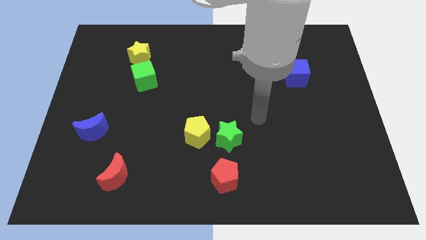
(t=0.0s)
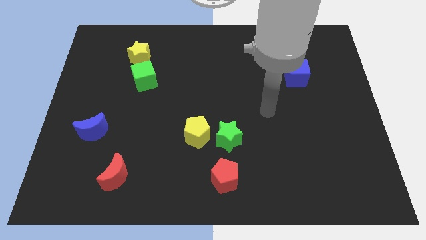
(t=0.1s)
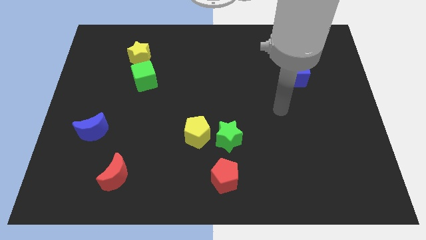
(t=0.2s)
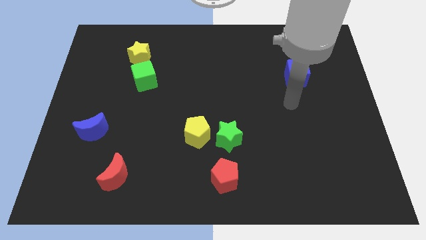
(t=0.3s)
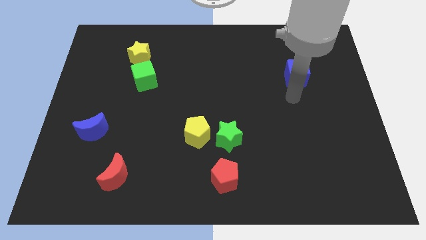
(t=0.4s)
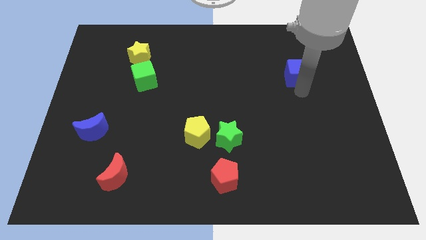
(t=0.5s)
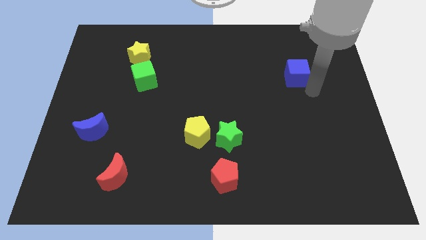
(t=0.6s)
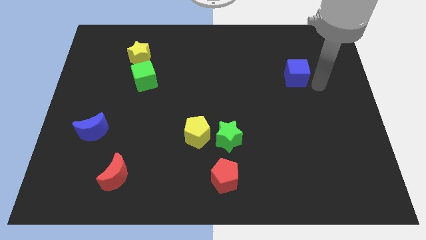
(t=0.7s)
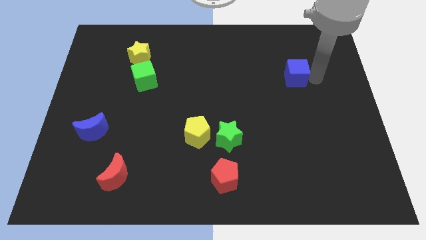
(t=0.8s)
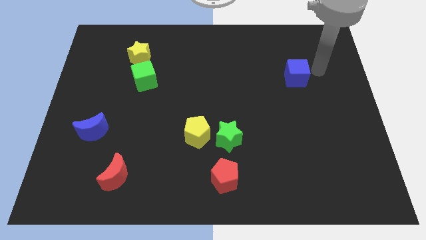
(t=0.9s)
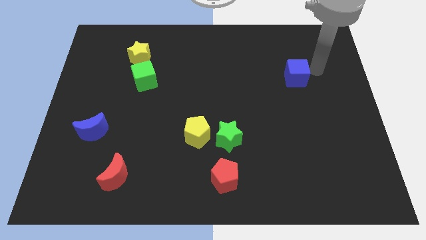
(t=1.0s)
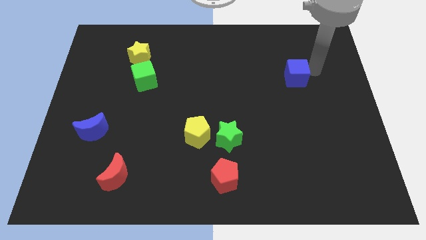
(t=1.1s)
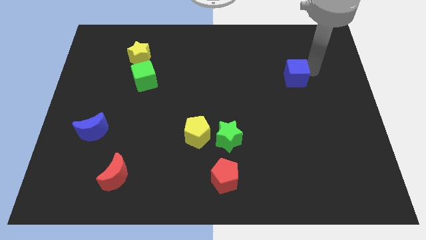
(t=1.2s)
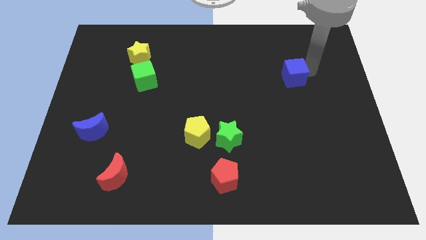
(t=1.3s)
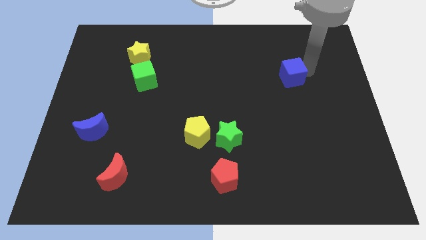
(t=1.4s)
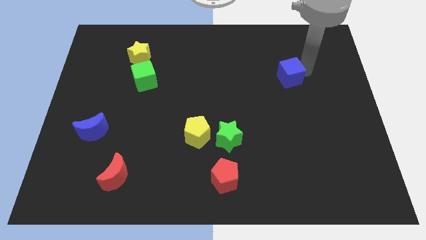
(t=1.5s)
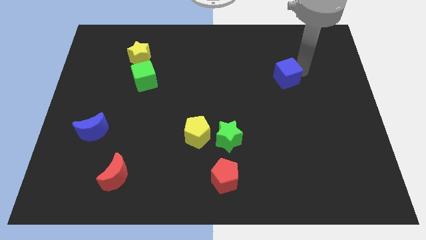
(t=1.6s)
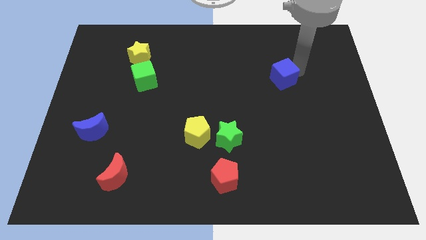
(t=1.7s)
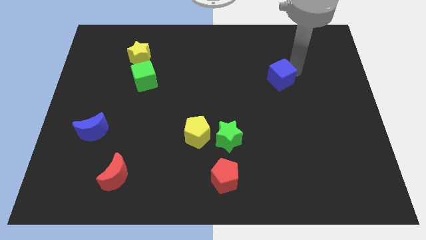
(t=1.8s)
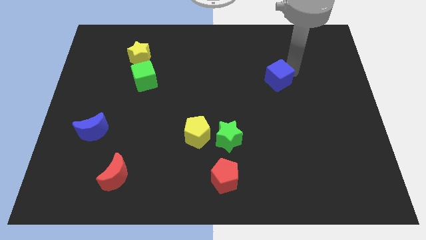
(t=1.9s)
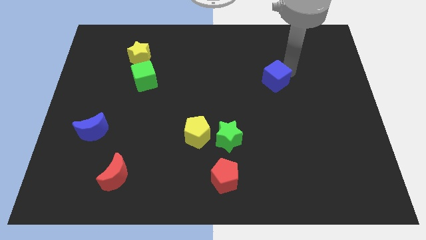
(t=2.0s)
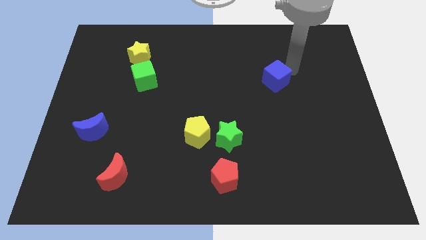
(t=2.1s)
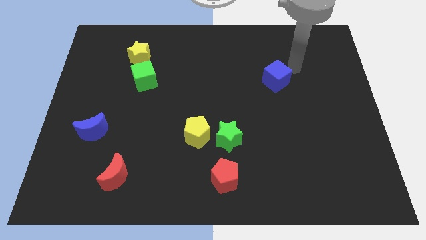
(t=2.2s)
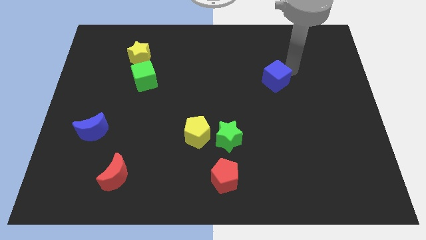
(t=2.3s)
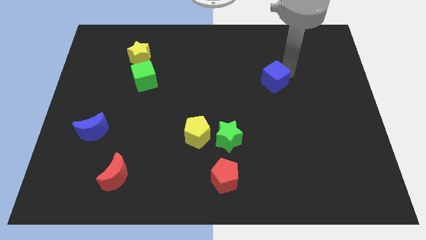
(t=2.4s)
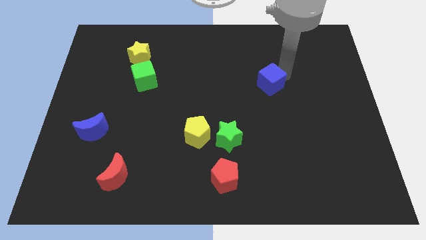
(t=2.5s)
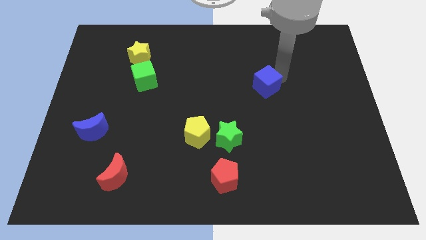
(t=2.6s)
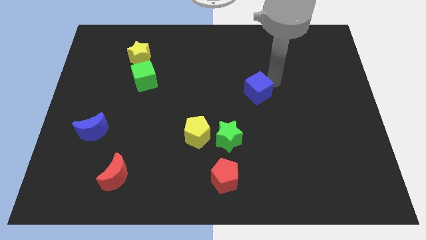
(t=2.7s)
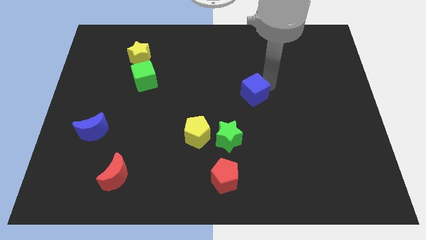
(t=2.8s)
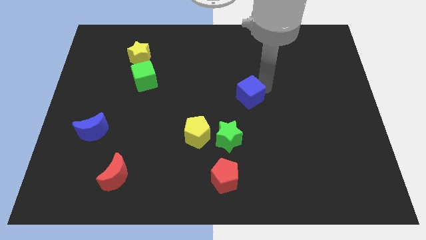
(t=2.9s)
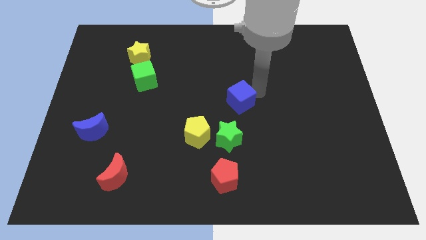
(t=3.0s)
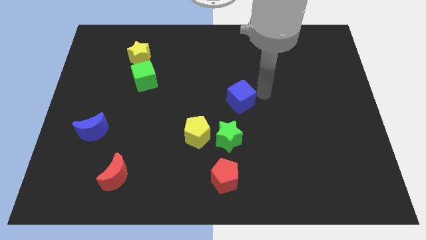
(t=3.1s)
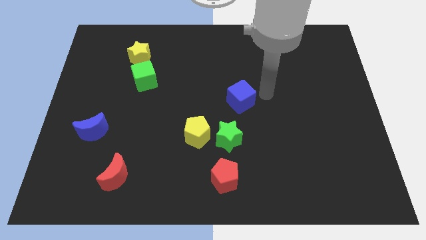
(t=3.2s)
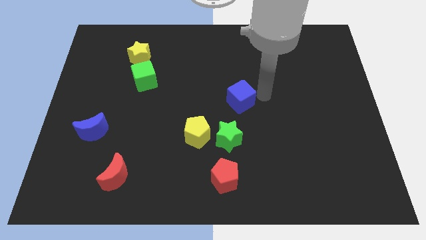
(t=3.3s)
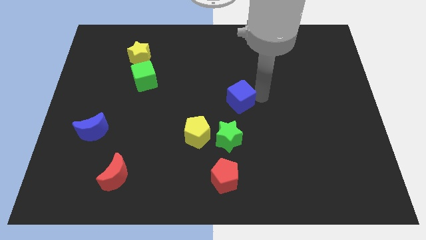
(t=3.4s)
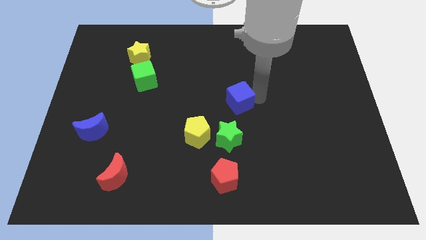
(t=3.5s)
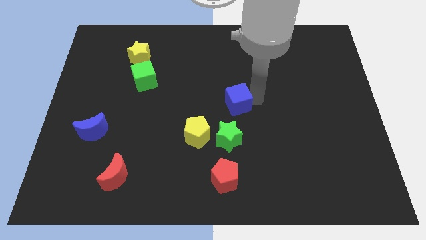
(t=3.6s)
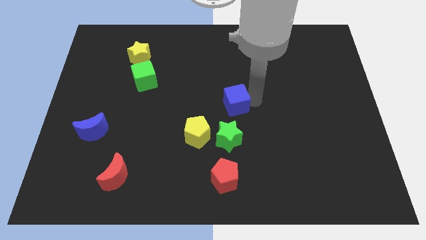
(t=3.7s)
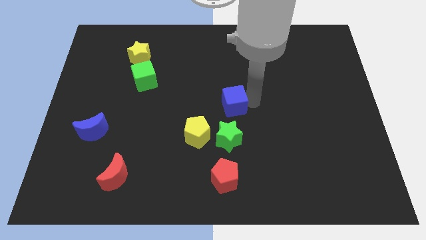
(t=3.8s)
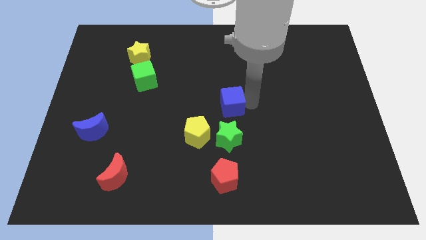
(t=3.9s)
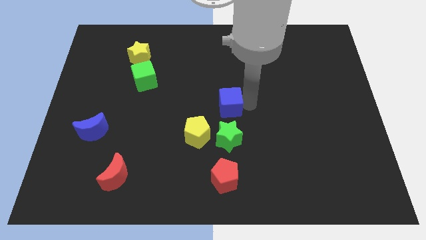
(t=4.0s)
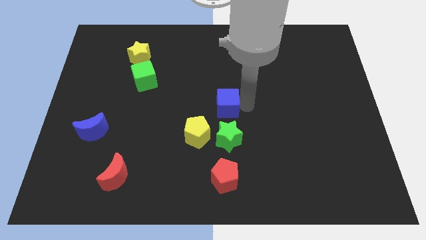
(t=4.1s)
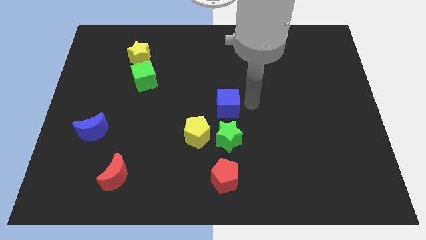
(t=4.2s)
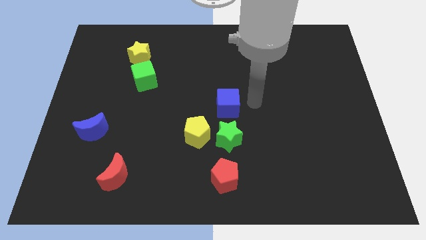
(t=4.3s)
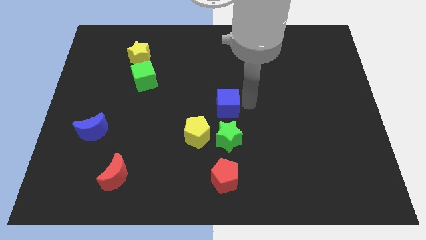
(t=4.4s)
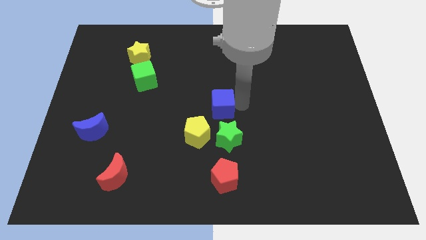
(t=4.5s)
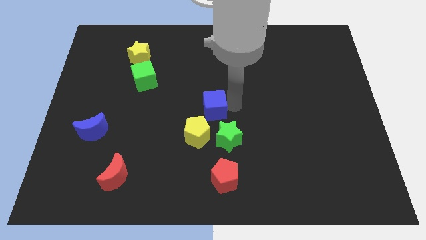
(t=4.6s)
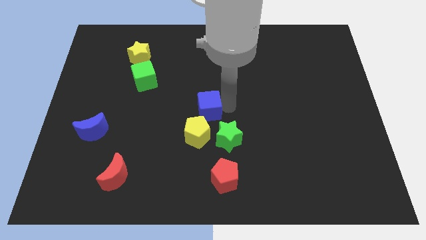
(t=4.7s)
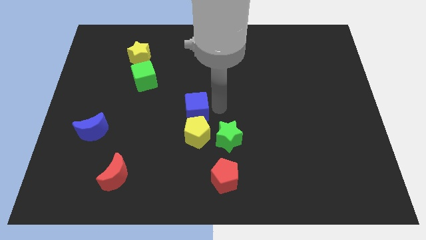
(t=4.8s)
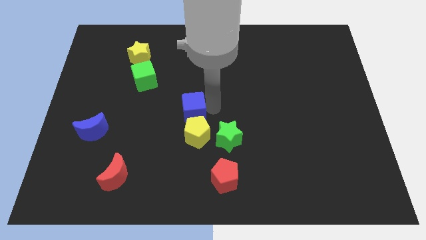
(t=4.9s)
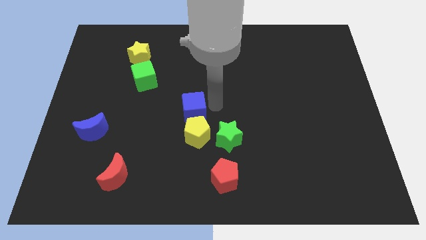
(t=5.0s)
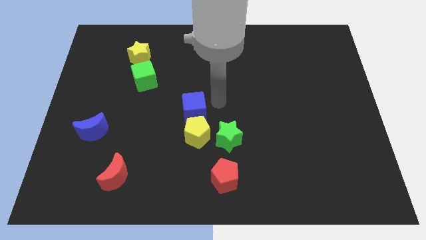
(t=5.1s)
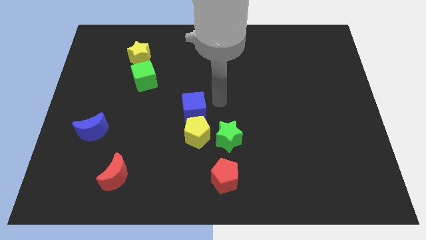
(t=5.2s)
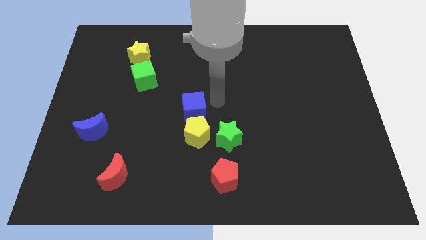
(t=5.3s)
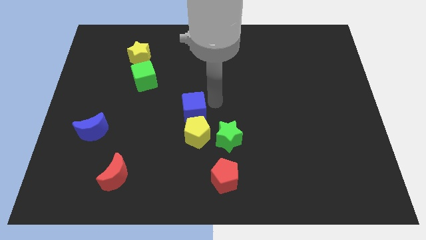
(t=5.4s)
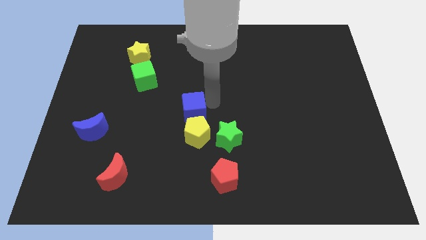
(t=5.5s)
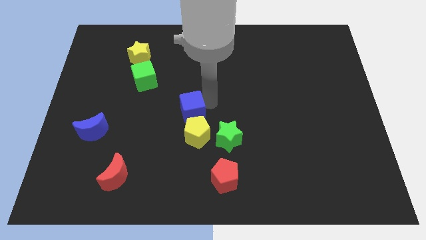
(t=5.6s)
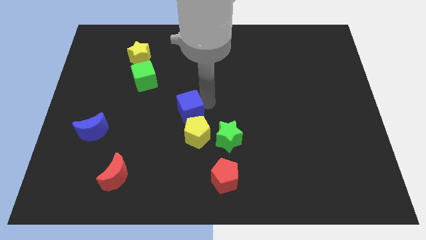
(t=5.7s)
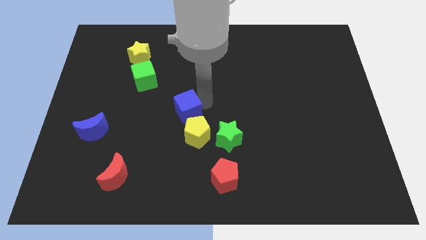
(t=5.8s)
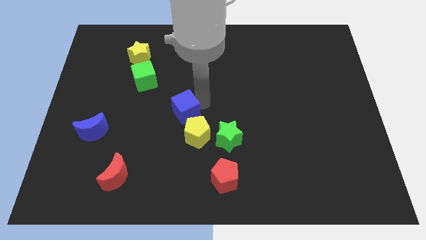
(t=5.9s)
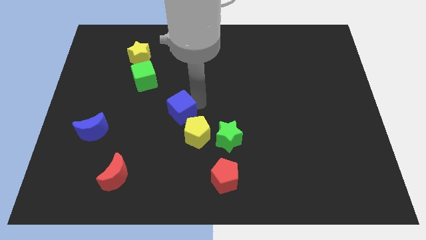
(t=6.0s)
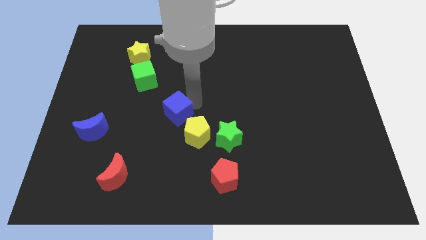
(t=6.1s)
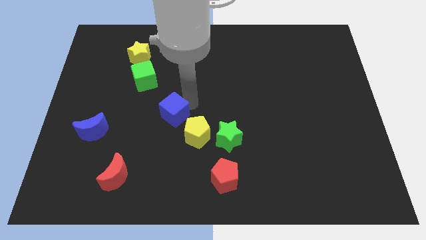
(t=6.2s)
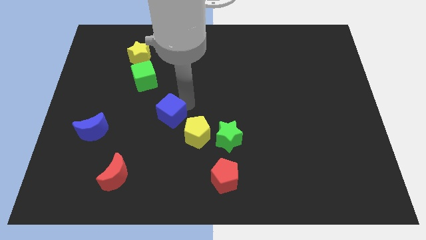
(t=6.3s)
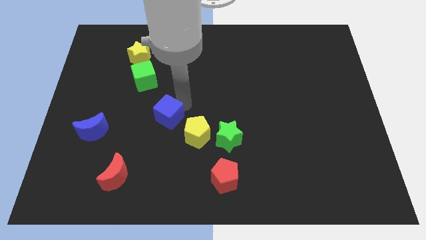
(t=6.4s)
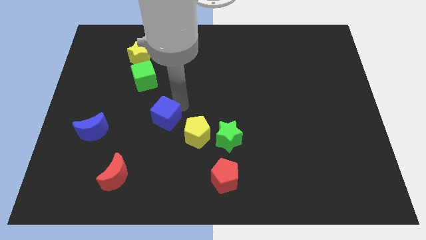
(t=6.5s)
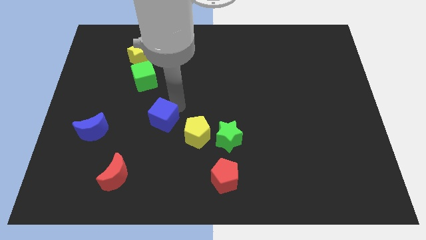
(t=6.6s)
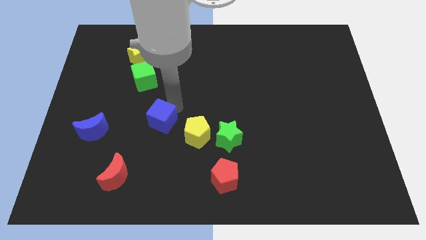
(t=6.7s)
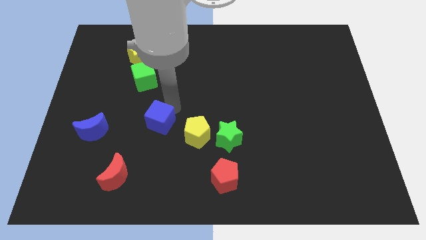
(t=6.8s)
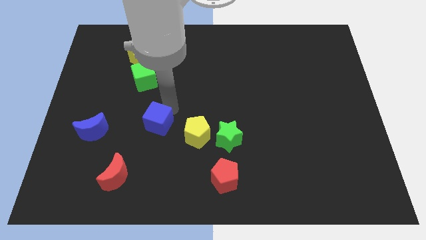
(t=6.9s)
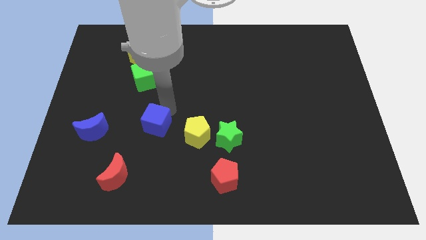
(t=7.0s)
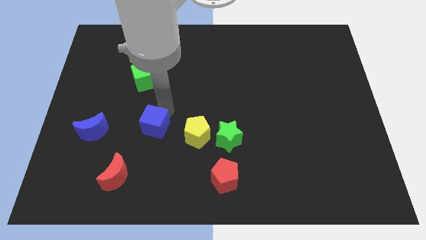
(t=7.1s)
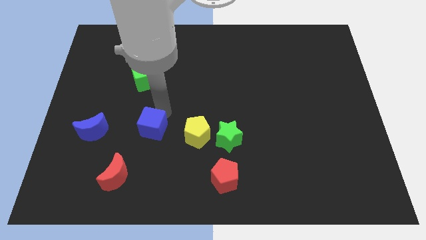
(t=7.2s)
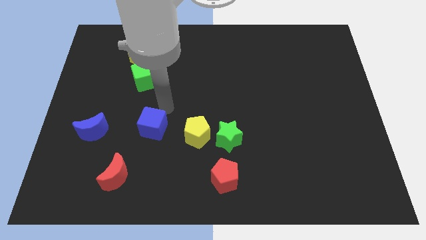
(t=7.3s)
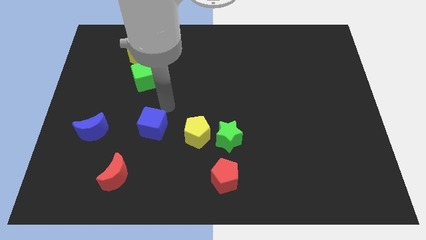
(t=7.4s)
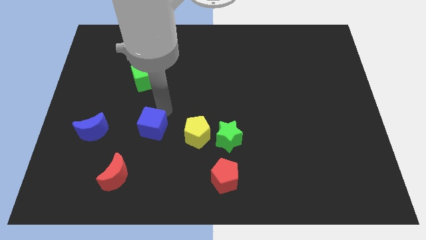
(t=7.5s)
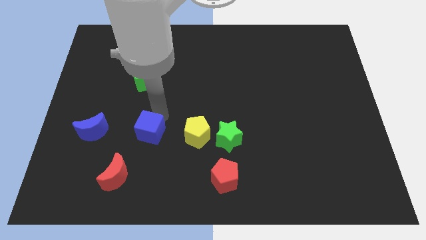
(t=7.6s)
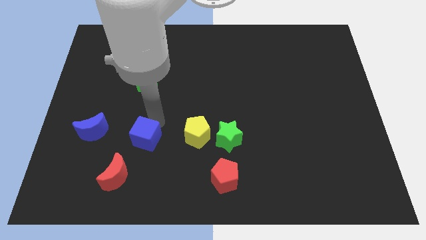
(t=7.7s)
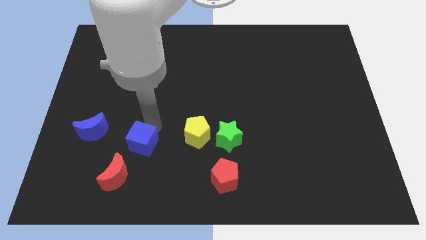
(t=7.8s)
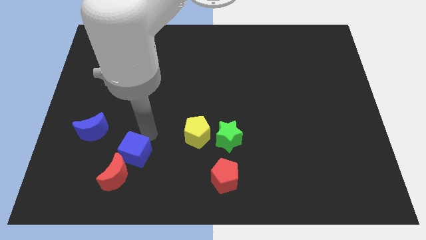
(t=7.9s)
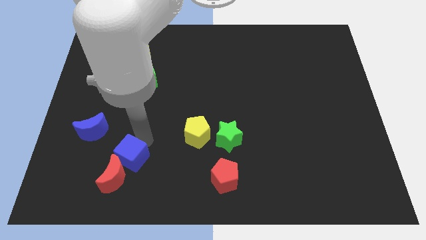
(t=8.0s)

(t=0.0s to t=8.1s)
slide the blue cube to the red moon
